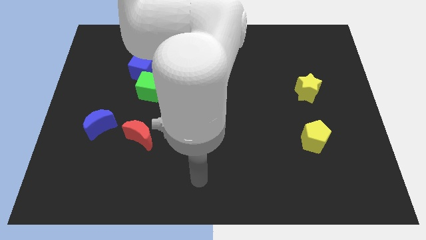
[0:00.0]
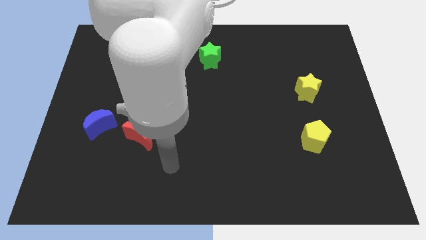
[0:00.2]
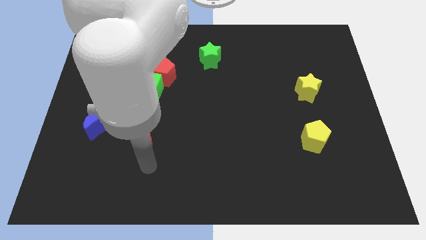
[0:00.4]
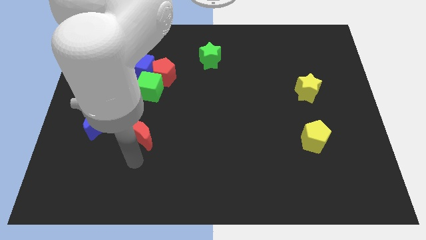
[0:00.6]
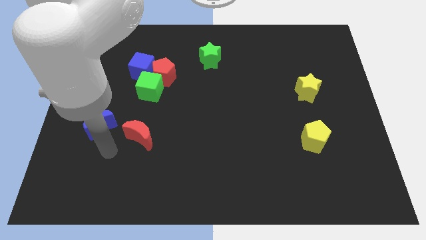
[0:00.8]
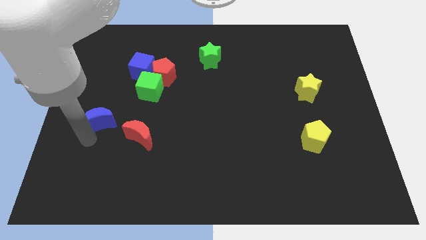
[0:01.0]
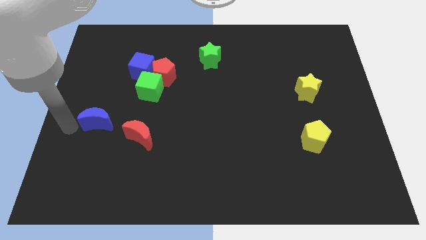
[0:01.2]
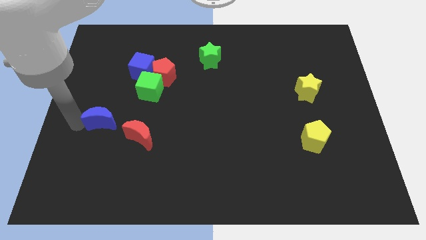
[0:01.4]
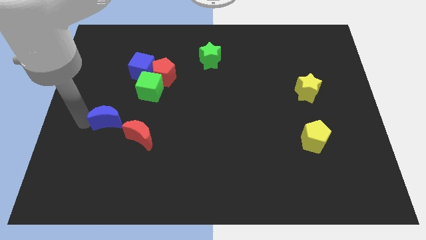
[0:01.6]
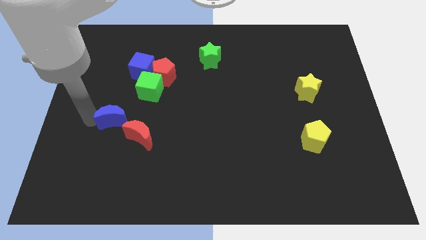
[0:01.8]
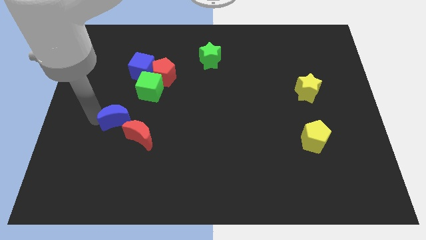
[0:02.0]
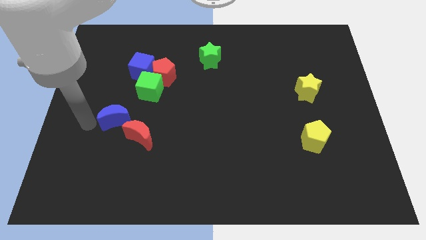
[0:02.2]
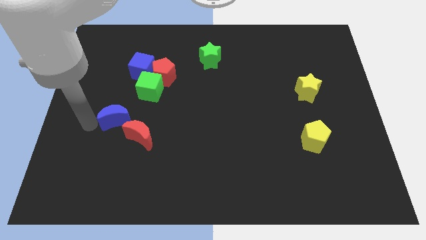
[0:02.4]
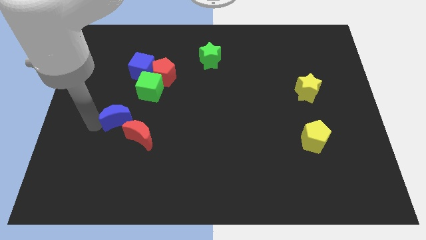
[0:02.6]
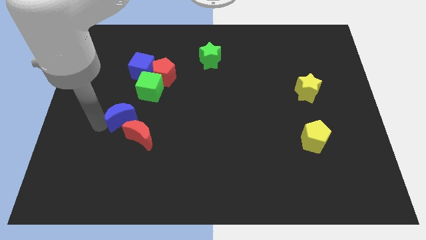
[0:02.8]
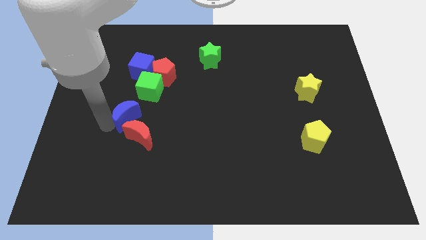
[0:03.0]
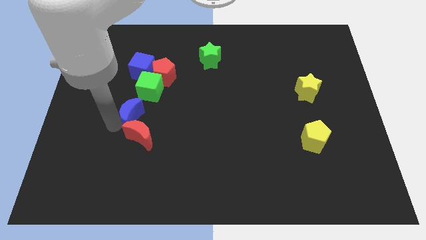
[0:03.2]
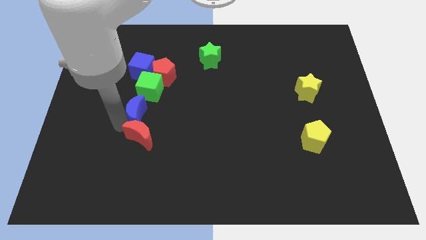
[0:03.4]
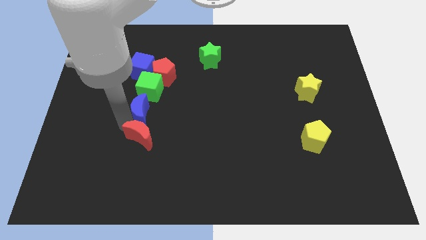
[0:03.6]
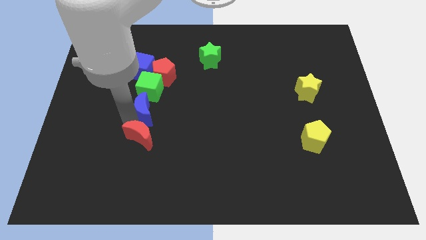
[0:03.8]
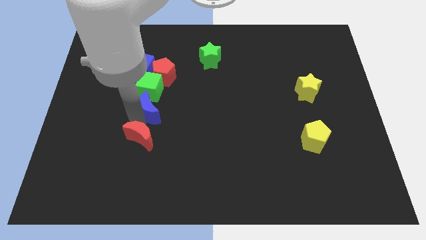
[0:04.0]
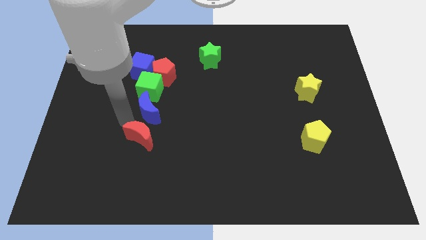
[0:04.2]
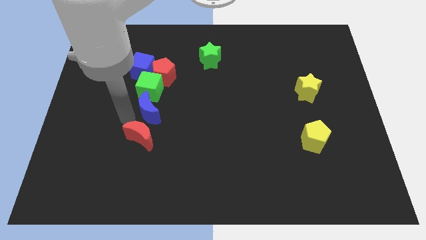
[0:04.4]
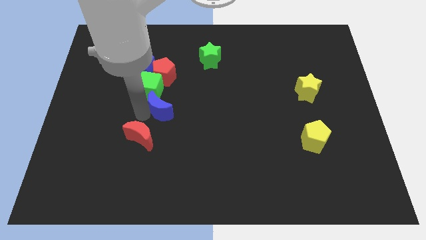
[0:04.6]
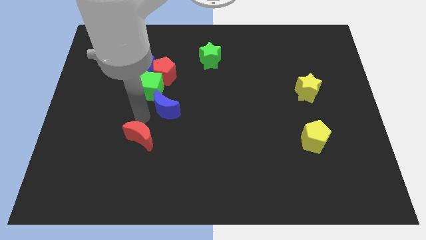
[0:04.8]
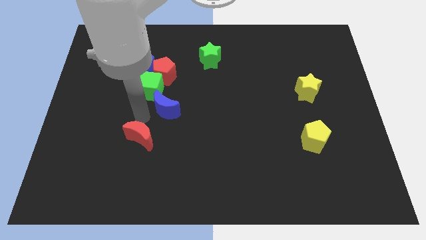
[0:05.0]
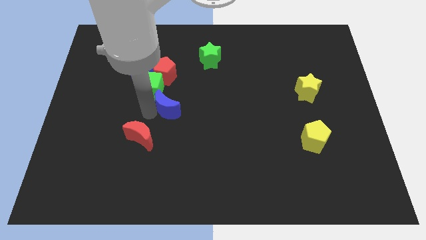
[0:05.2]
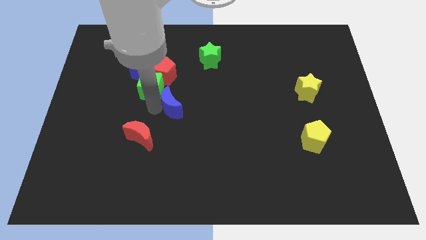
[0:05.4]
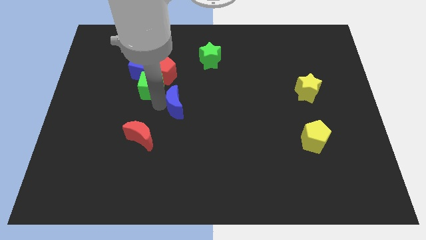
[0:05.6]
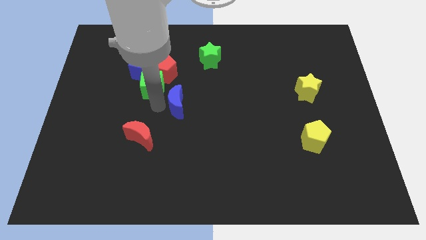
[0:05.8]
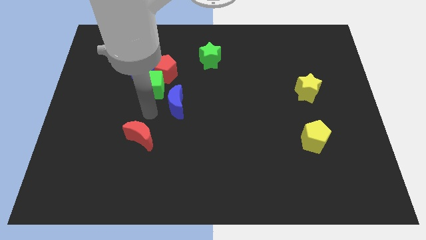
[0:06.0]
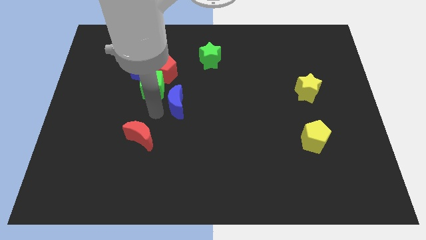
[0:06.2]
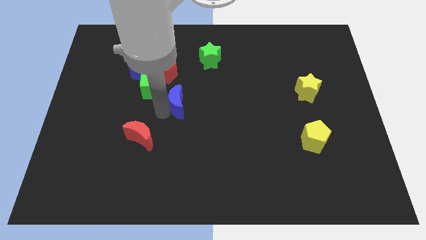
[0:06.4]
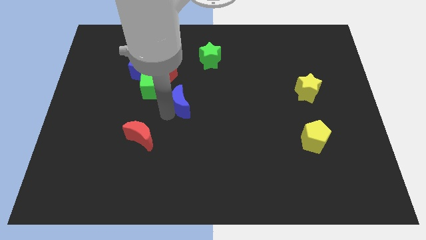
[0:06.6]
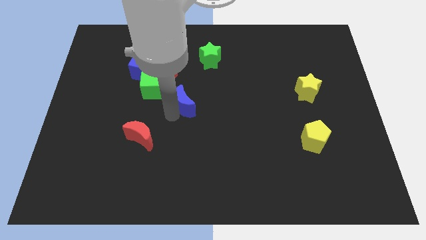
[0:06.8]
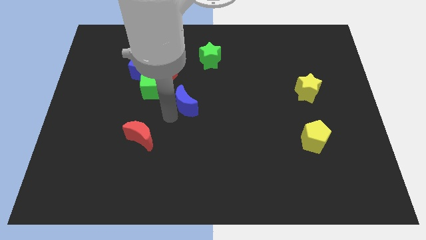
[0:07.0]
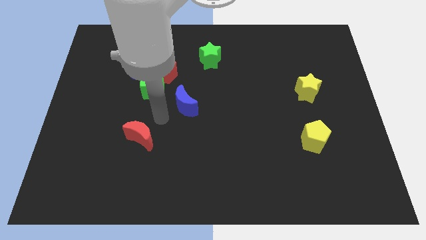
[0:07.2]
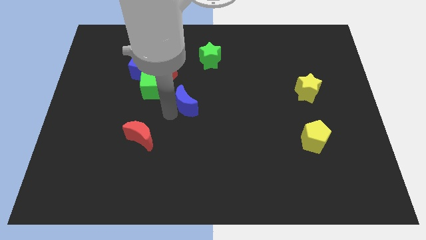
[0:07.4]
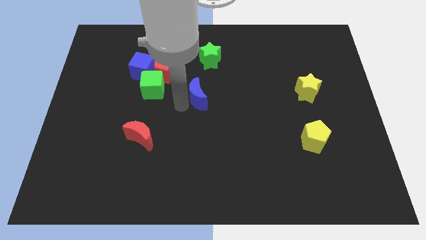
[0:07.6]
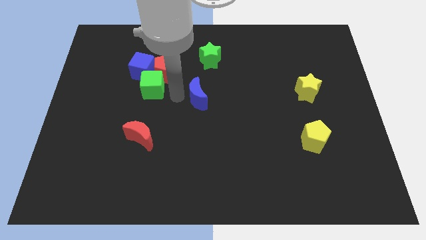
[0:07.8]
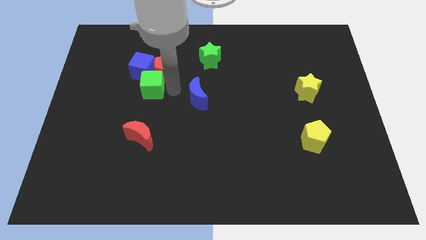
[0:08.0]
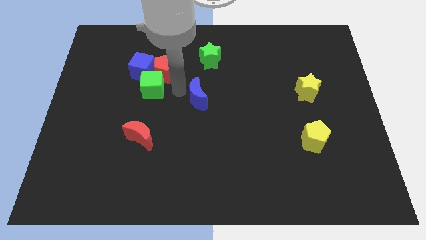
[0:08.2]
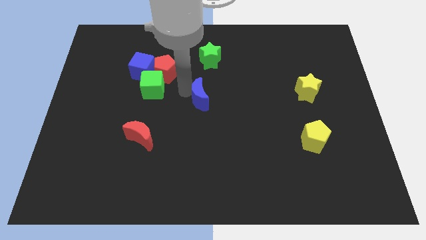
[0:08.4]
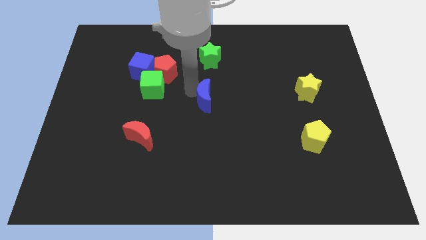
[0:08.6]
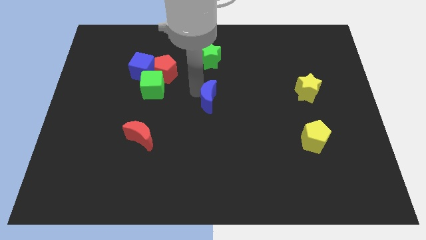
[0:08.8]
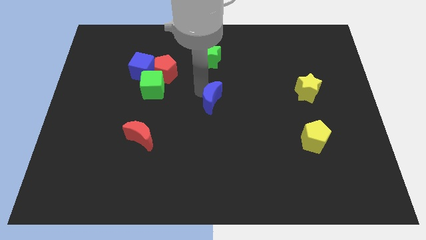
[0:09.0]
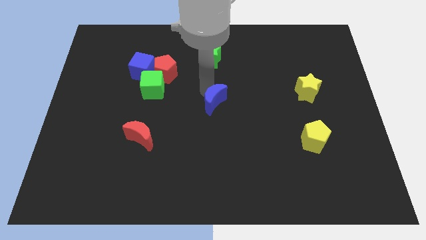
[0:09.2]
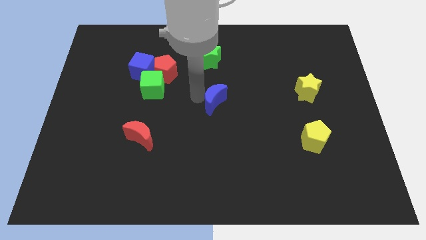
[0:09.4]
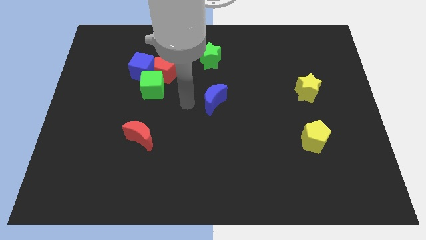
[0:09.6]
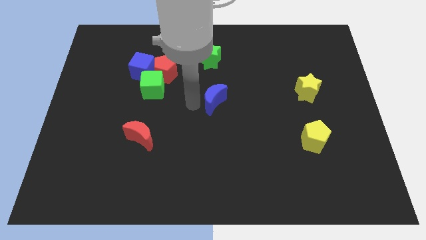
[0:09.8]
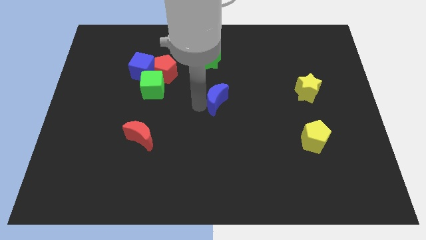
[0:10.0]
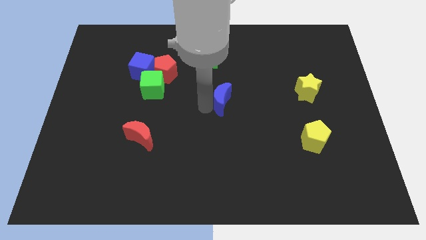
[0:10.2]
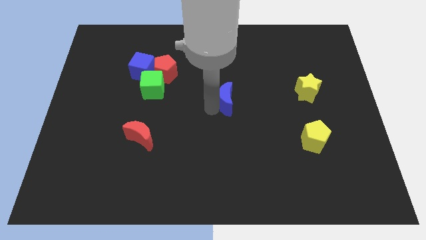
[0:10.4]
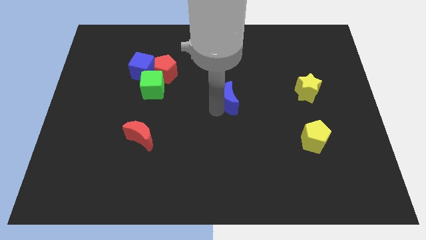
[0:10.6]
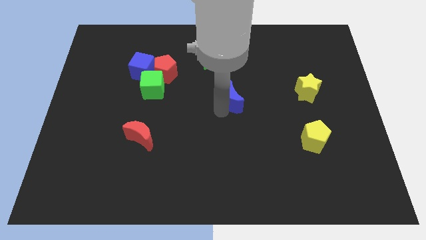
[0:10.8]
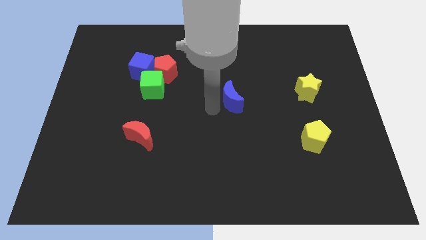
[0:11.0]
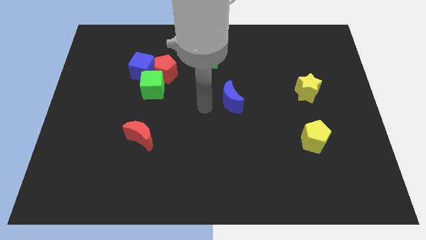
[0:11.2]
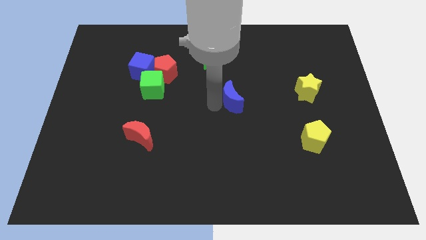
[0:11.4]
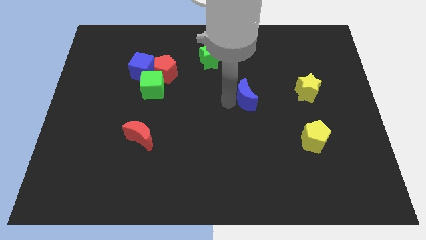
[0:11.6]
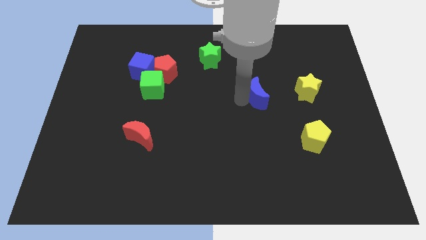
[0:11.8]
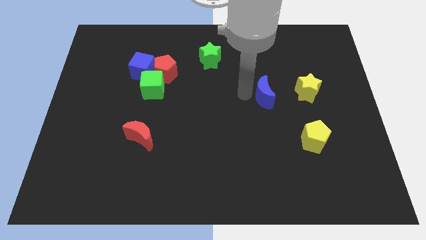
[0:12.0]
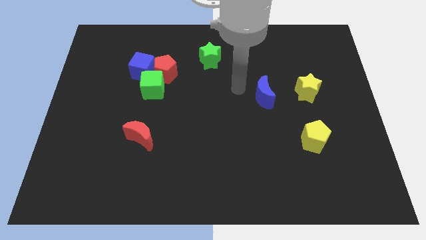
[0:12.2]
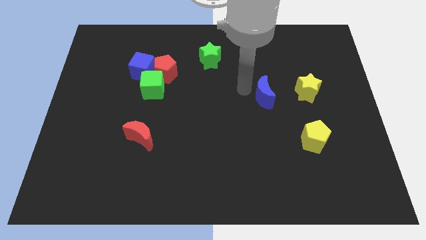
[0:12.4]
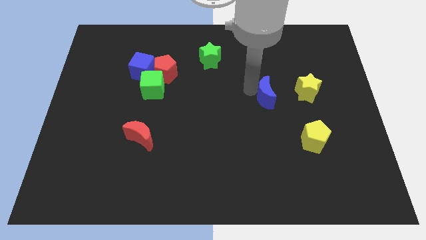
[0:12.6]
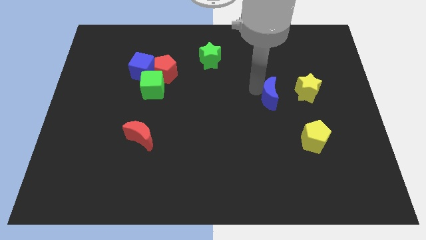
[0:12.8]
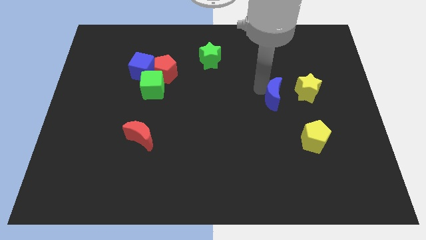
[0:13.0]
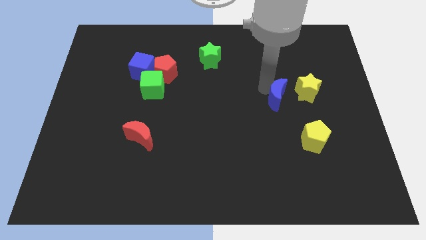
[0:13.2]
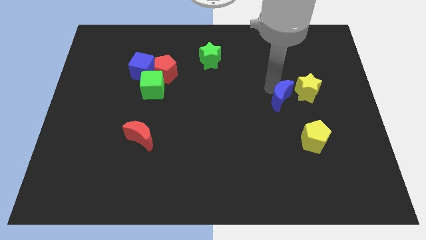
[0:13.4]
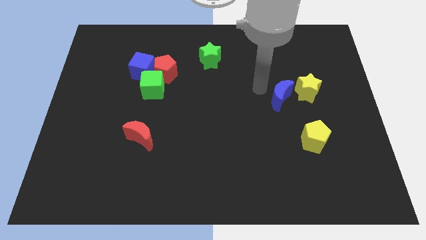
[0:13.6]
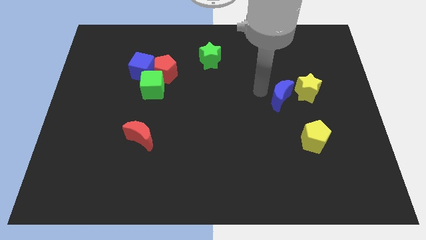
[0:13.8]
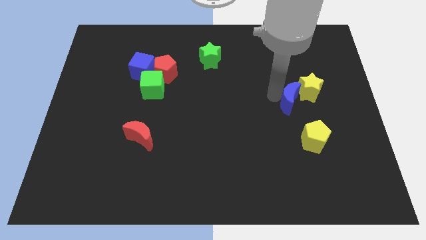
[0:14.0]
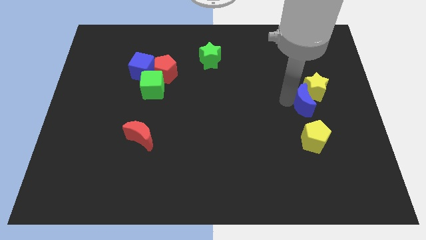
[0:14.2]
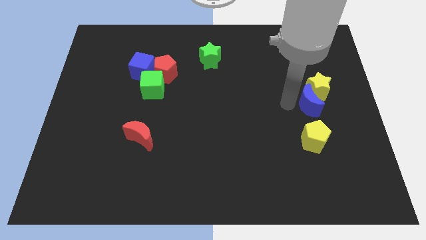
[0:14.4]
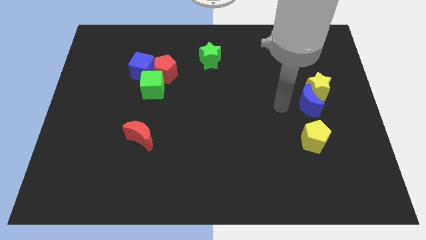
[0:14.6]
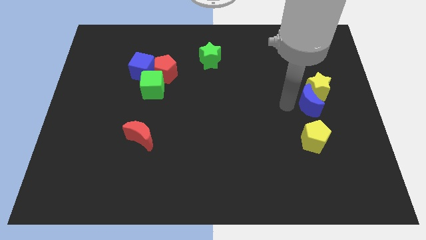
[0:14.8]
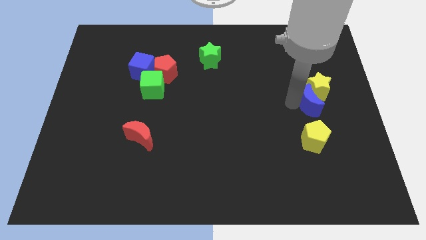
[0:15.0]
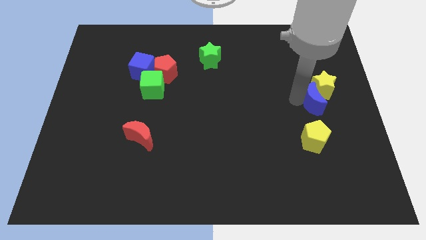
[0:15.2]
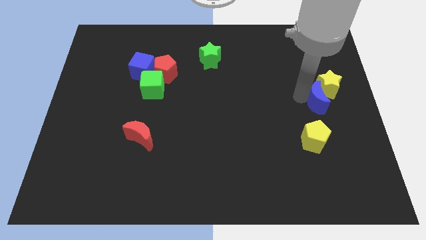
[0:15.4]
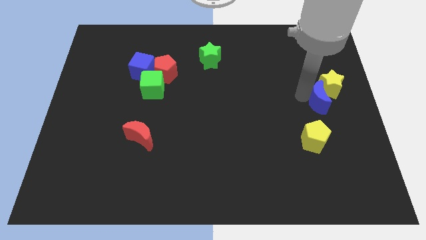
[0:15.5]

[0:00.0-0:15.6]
push the blue moon to the right side of the board
